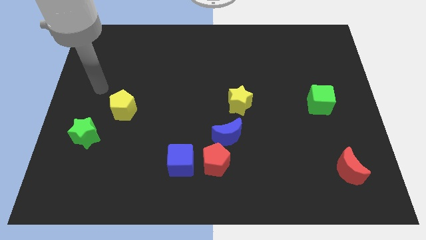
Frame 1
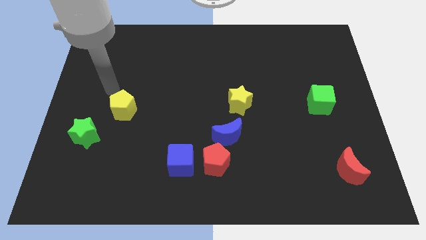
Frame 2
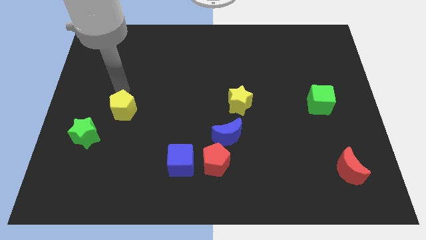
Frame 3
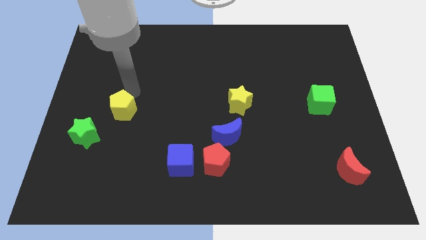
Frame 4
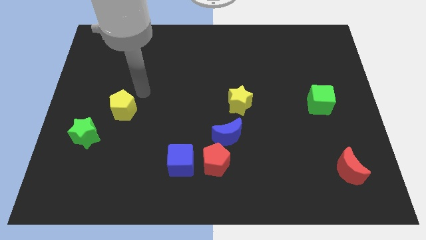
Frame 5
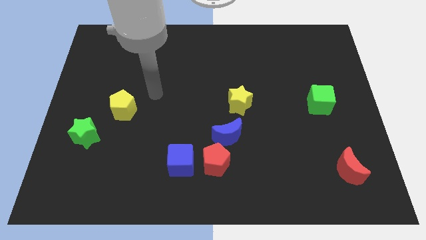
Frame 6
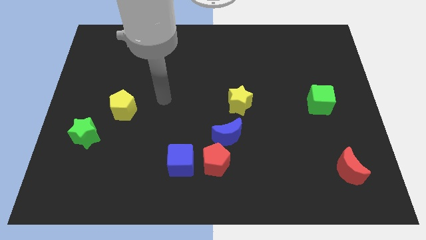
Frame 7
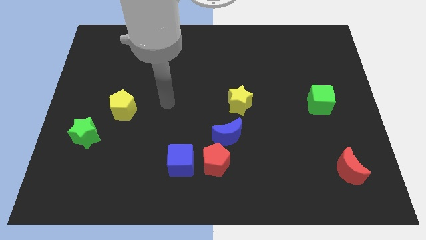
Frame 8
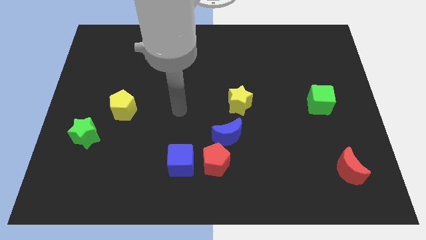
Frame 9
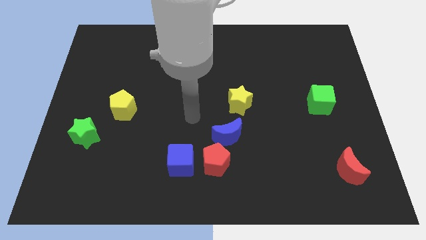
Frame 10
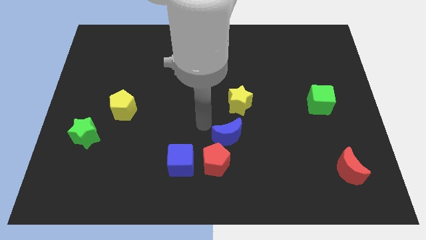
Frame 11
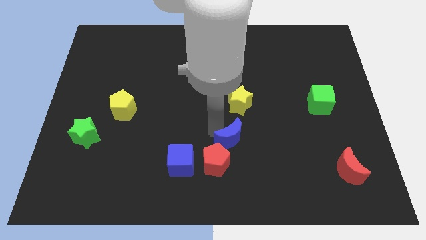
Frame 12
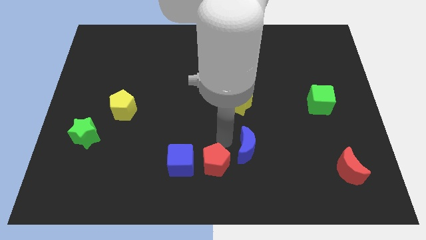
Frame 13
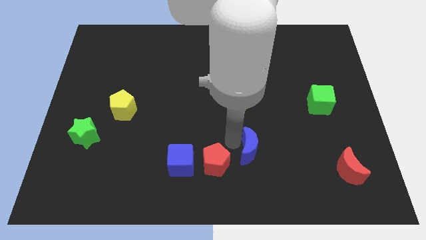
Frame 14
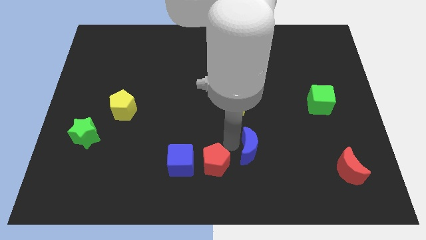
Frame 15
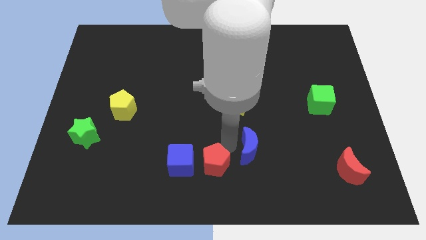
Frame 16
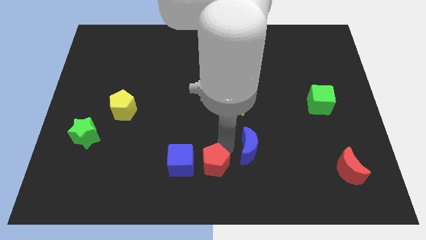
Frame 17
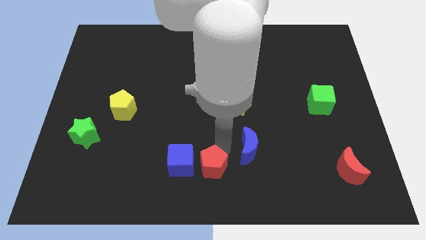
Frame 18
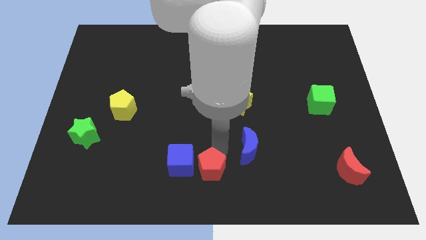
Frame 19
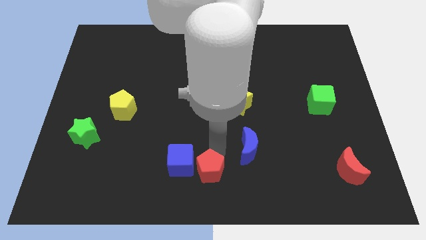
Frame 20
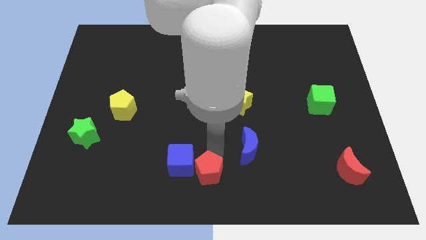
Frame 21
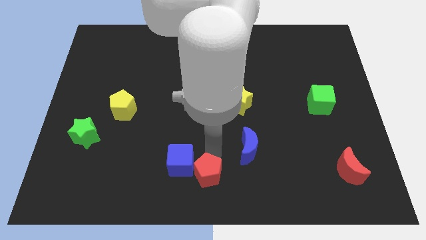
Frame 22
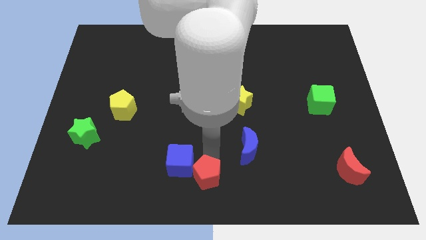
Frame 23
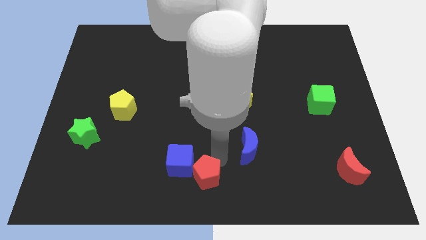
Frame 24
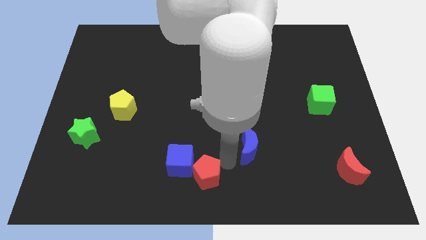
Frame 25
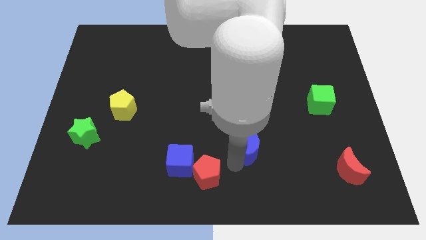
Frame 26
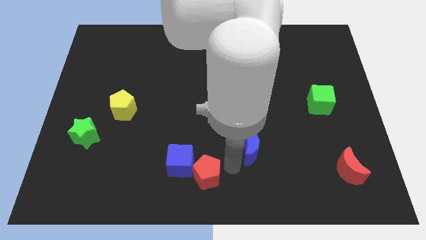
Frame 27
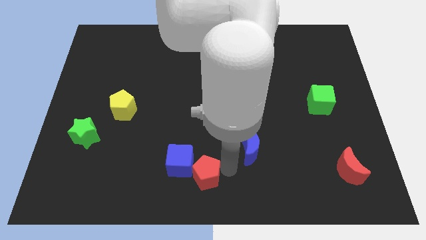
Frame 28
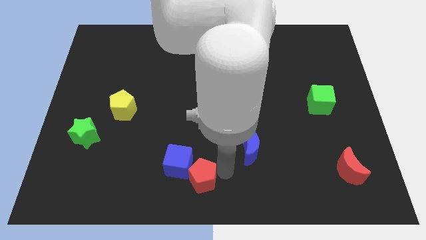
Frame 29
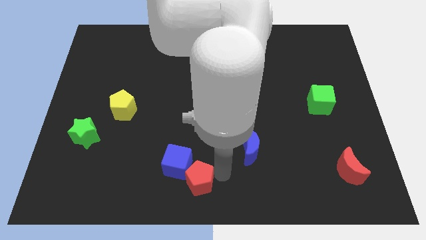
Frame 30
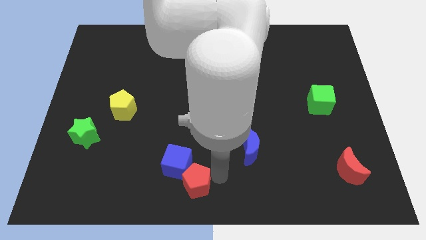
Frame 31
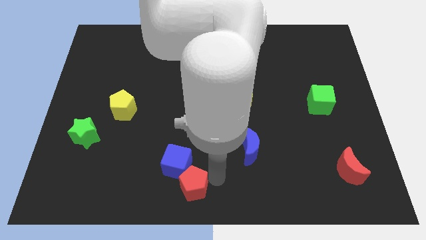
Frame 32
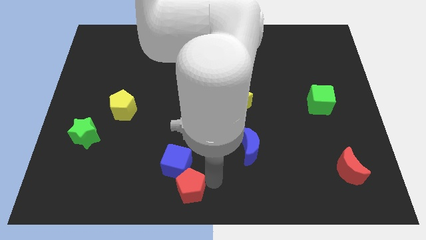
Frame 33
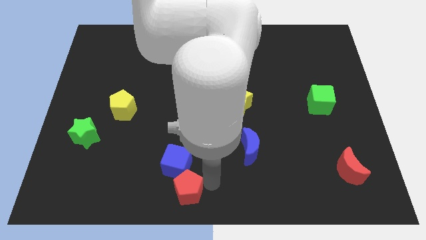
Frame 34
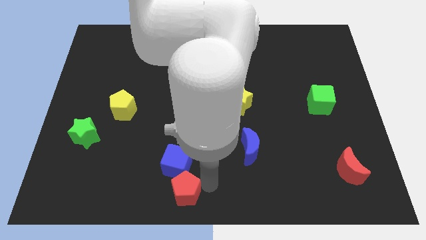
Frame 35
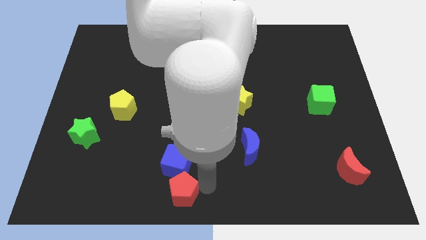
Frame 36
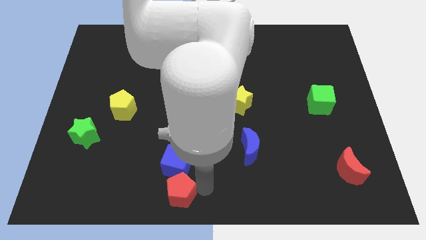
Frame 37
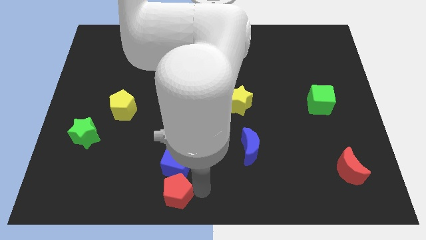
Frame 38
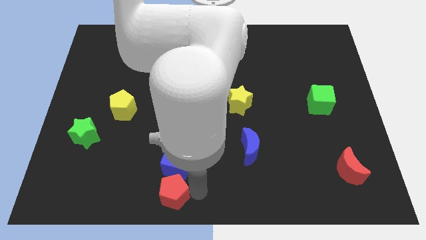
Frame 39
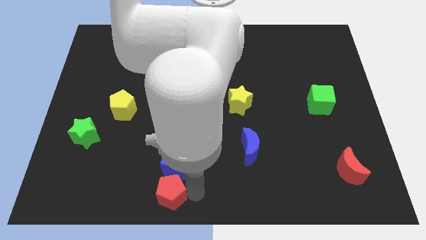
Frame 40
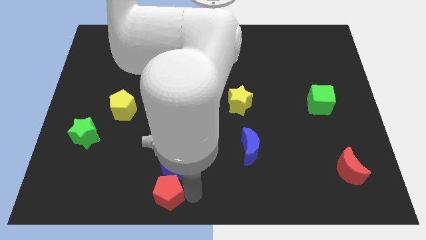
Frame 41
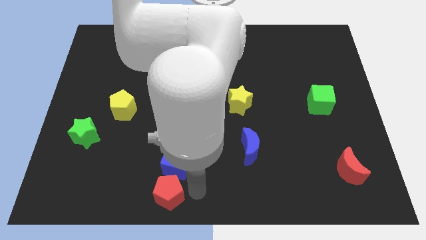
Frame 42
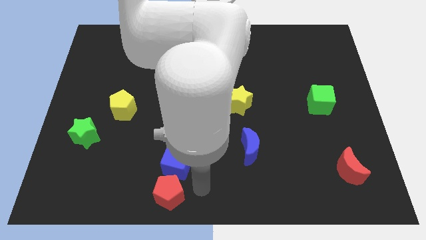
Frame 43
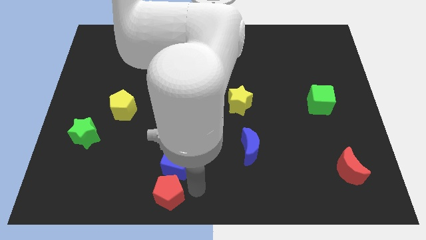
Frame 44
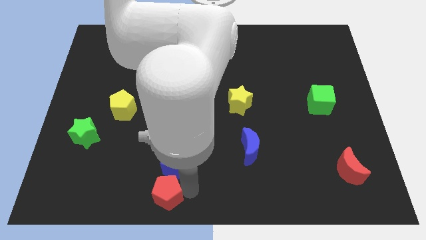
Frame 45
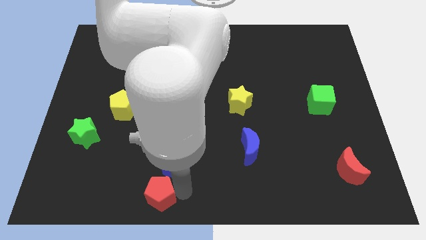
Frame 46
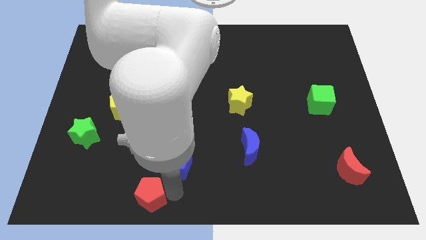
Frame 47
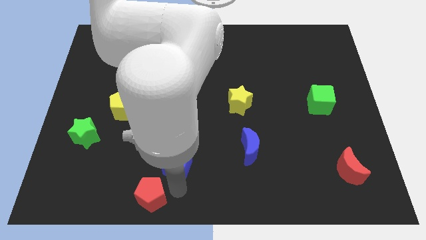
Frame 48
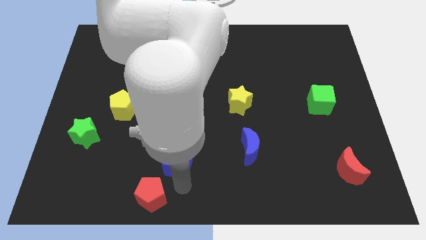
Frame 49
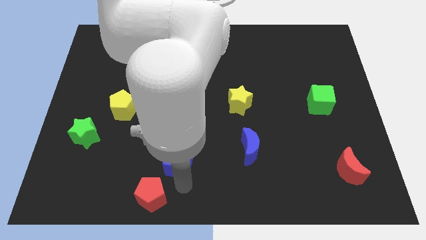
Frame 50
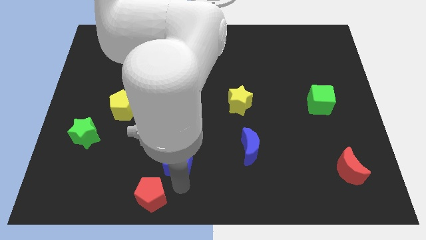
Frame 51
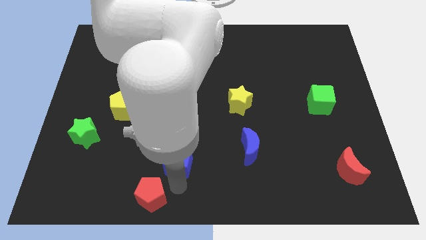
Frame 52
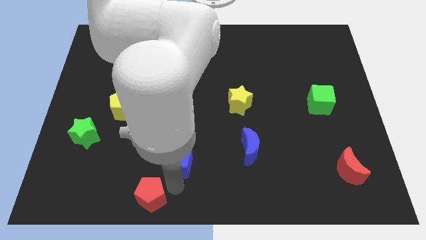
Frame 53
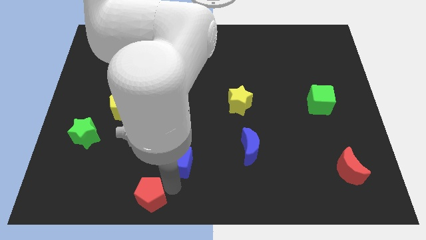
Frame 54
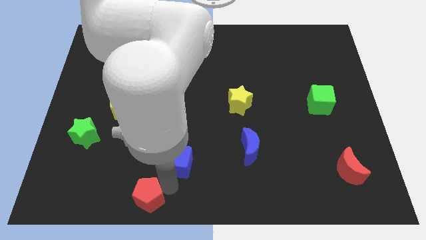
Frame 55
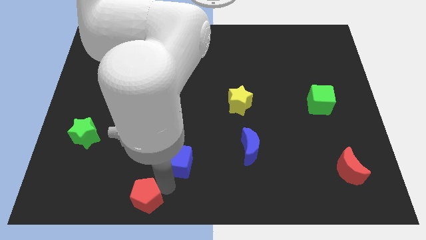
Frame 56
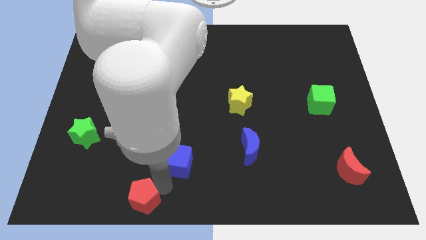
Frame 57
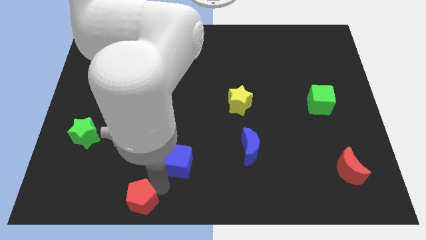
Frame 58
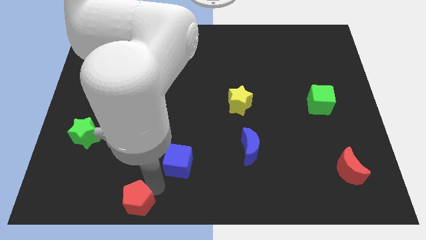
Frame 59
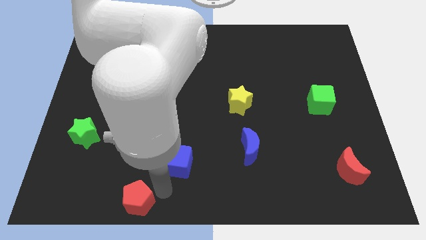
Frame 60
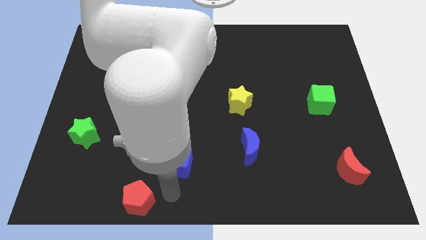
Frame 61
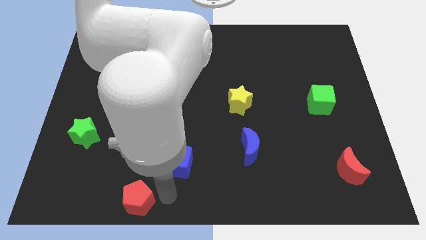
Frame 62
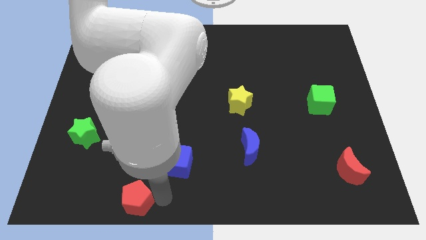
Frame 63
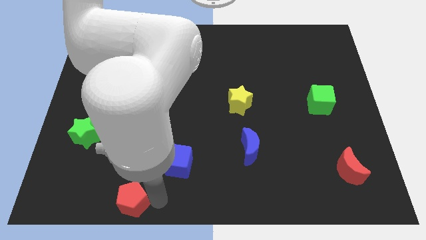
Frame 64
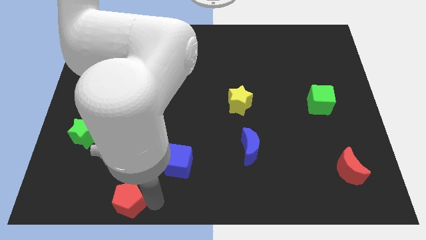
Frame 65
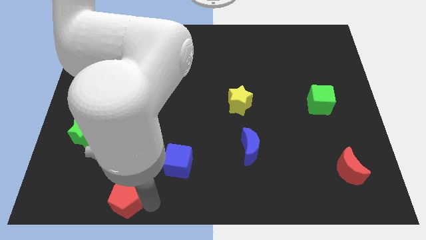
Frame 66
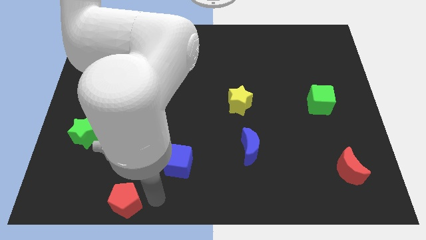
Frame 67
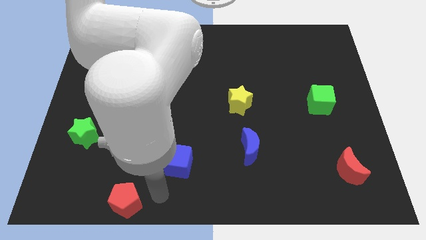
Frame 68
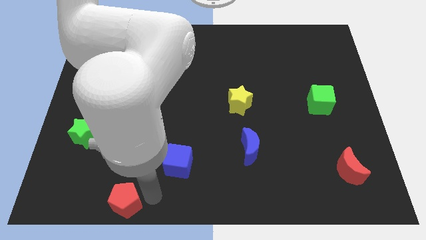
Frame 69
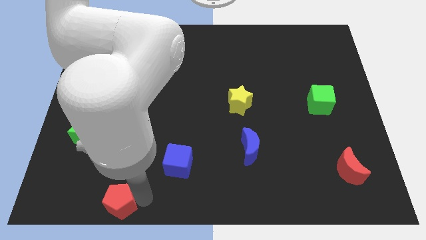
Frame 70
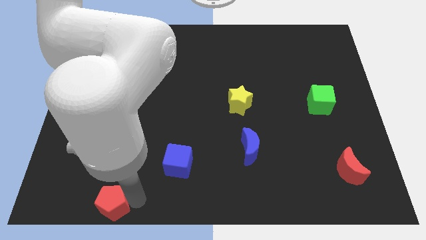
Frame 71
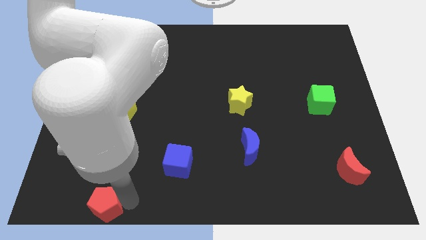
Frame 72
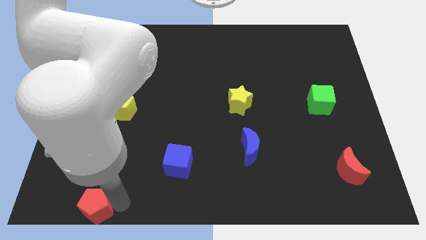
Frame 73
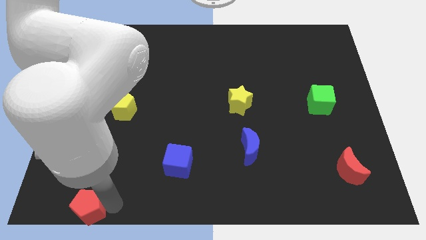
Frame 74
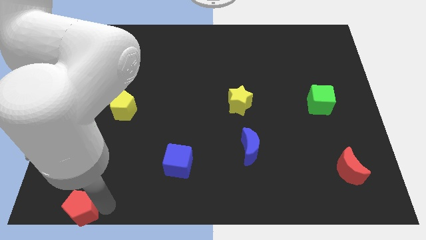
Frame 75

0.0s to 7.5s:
put the red pentagon to the bottom left of the board
